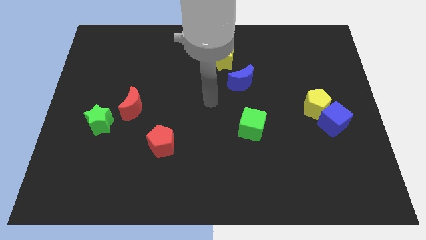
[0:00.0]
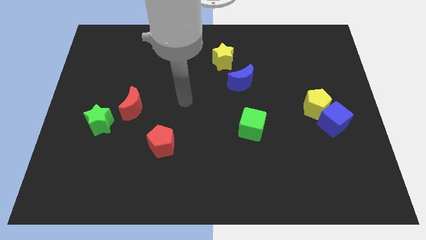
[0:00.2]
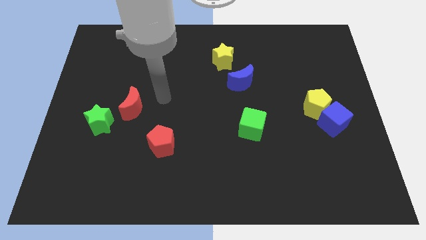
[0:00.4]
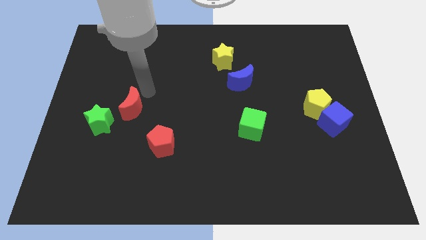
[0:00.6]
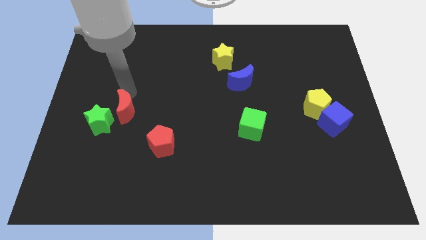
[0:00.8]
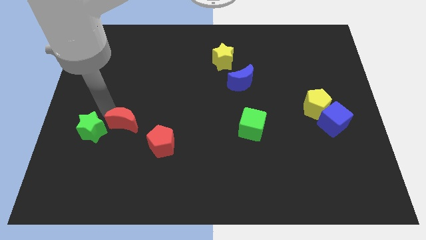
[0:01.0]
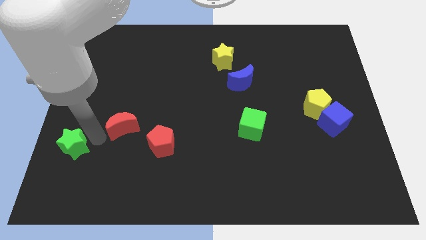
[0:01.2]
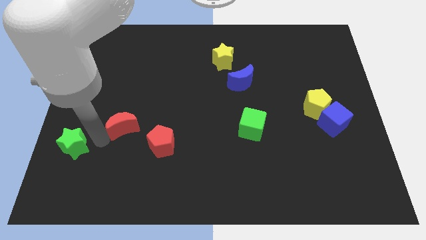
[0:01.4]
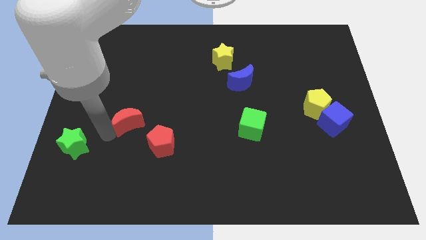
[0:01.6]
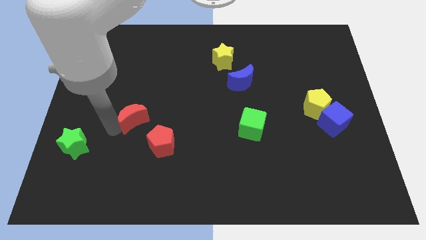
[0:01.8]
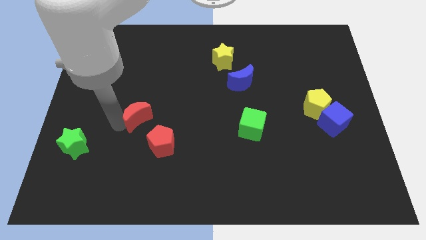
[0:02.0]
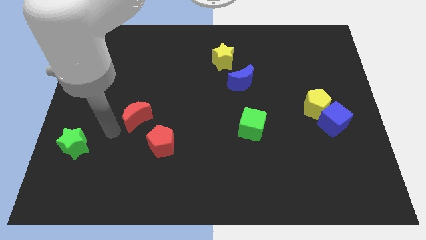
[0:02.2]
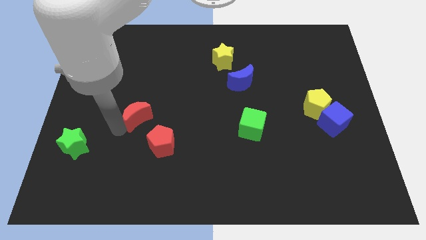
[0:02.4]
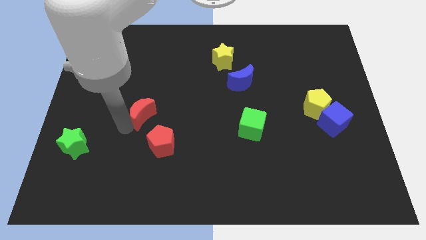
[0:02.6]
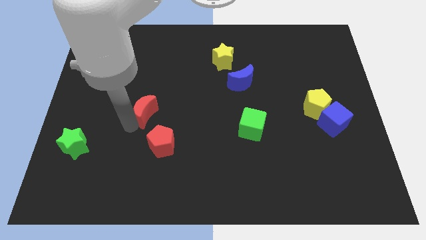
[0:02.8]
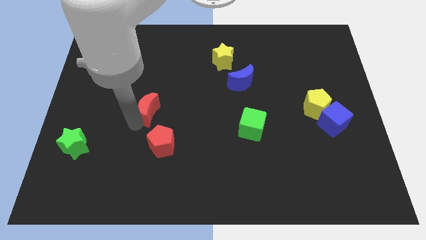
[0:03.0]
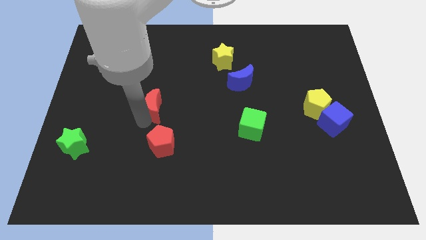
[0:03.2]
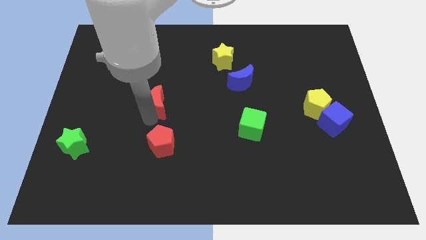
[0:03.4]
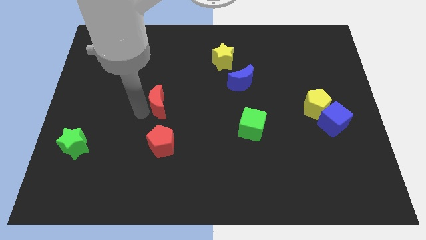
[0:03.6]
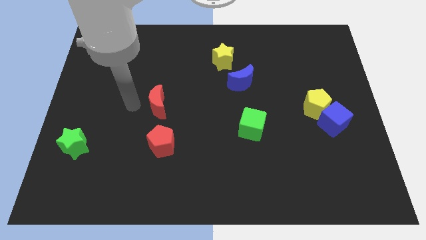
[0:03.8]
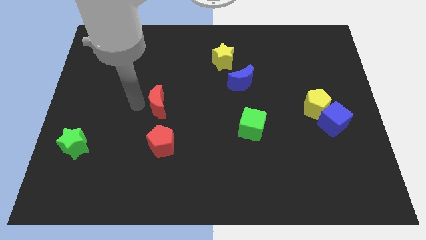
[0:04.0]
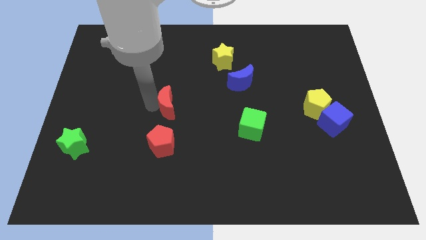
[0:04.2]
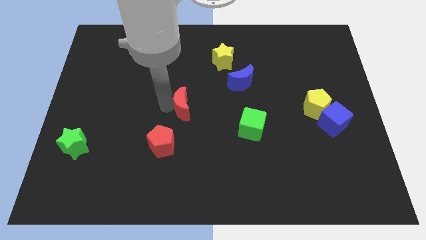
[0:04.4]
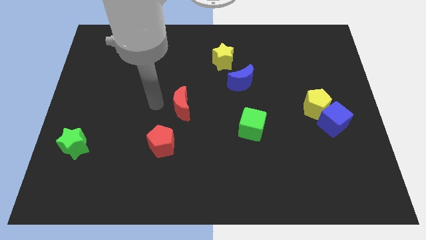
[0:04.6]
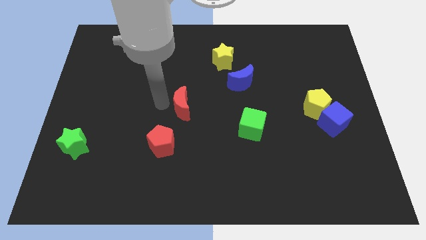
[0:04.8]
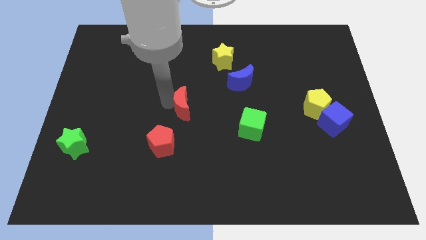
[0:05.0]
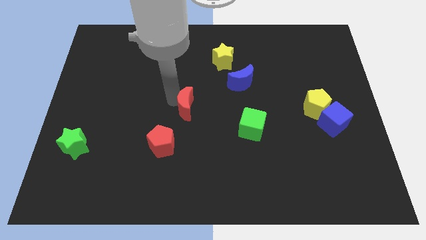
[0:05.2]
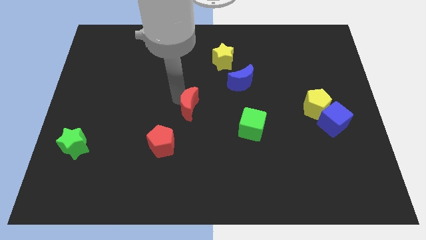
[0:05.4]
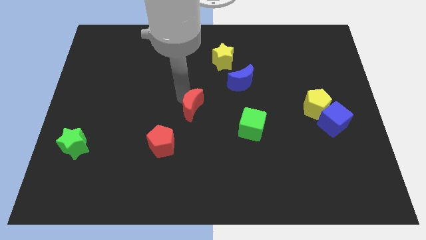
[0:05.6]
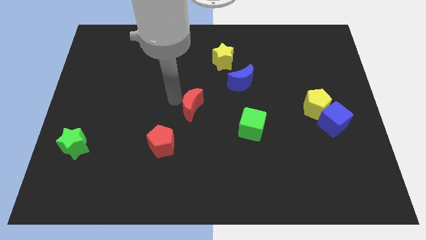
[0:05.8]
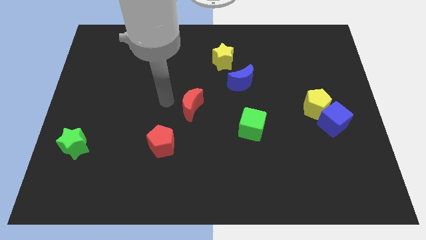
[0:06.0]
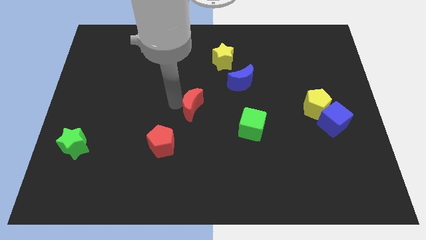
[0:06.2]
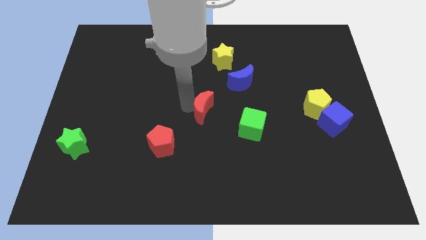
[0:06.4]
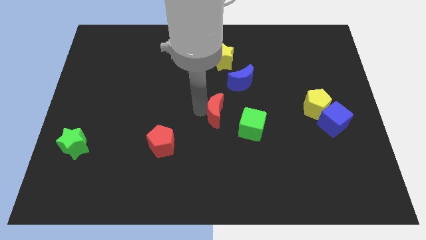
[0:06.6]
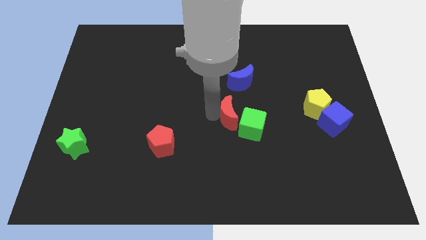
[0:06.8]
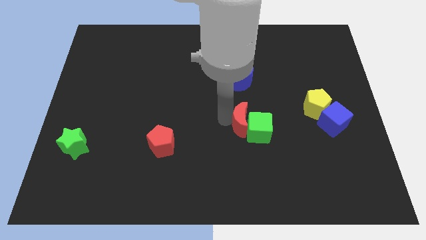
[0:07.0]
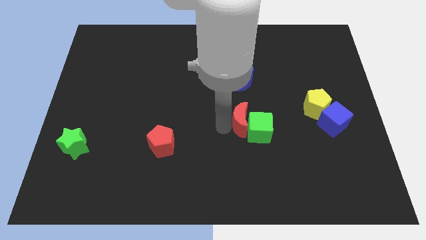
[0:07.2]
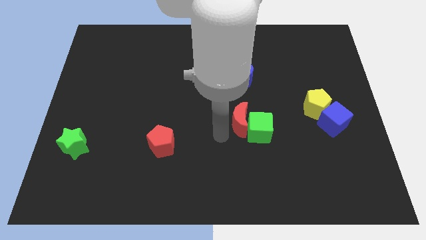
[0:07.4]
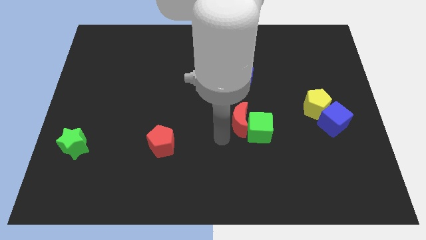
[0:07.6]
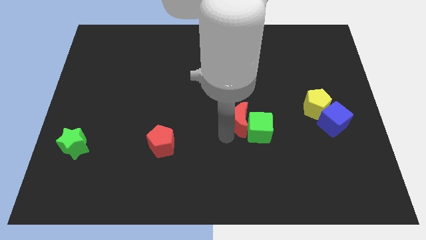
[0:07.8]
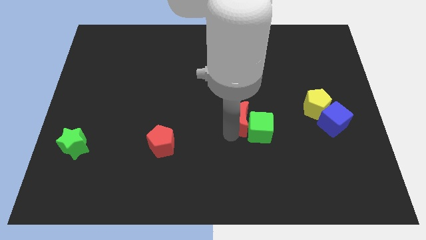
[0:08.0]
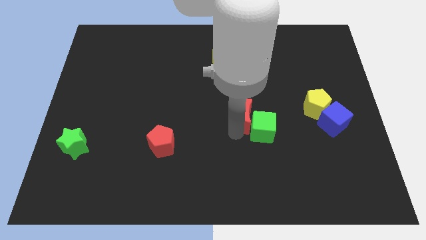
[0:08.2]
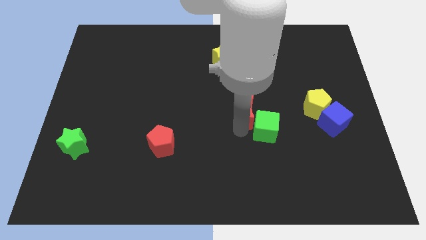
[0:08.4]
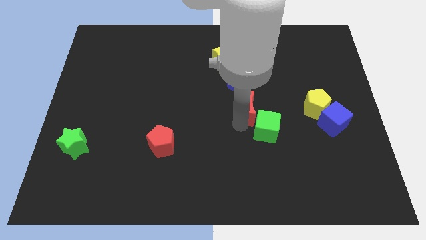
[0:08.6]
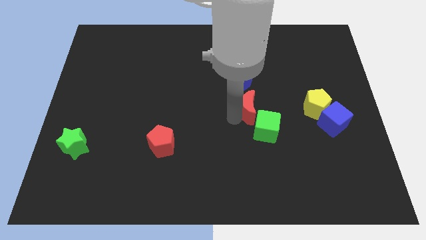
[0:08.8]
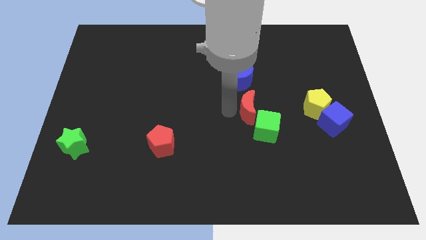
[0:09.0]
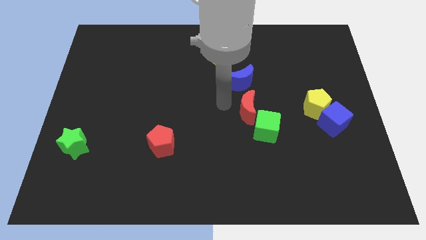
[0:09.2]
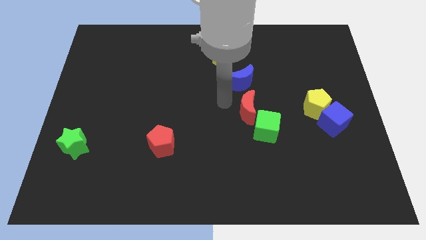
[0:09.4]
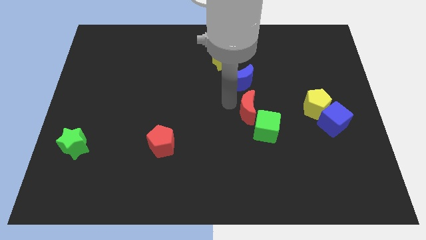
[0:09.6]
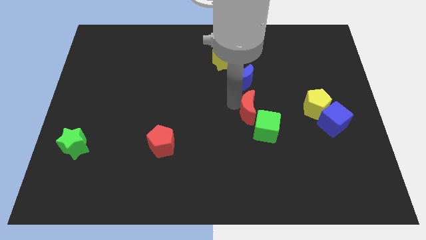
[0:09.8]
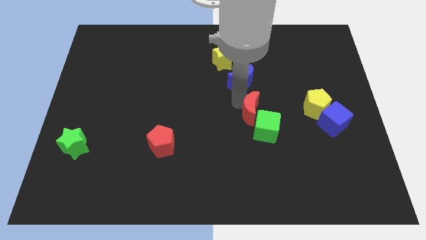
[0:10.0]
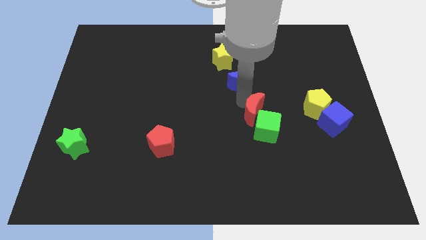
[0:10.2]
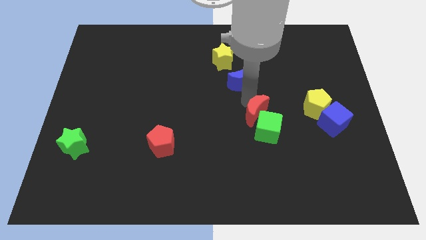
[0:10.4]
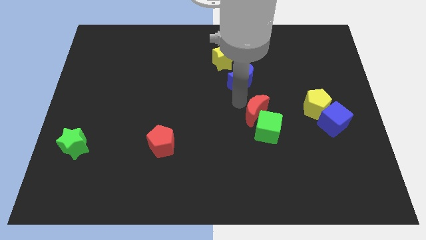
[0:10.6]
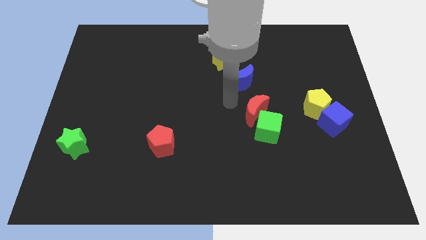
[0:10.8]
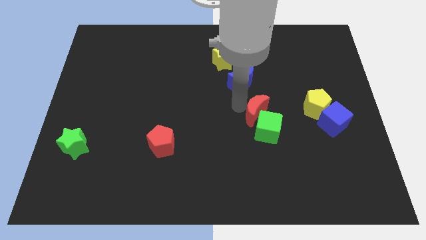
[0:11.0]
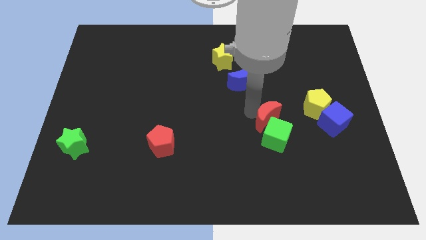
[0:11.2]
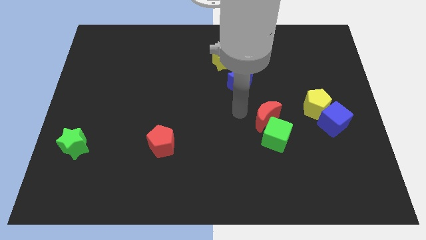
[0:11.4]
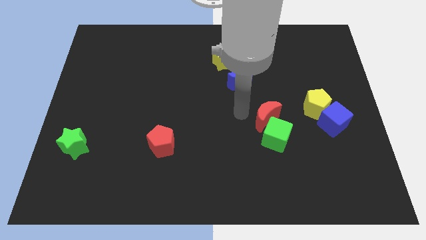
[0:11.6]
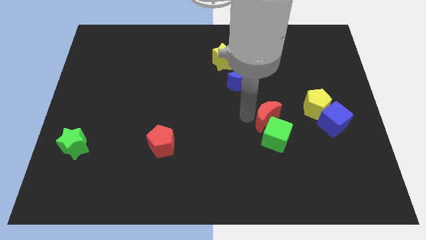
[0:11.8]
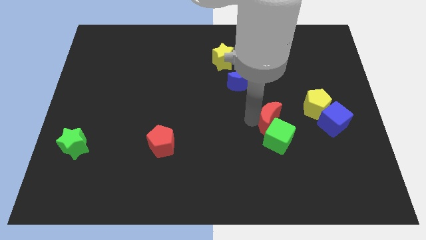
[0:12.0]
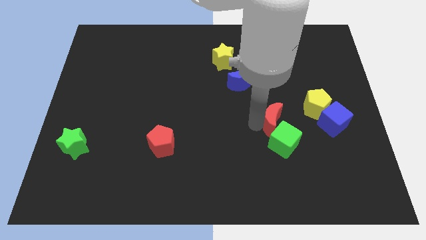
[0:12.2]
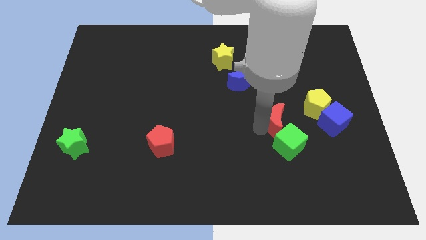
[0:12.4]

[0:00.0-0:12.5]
push the red moon to the bottom left side of the yellow pentagon

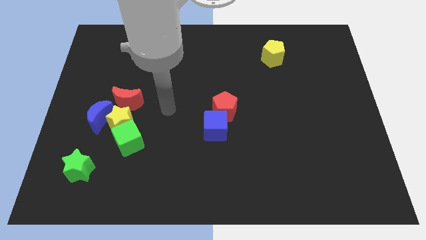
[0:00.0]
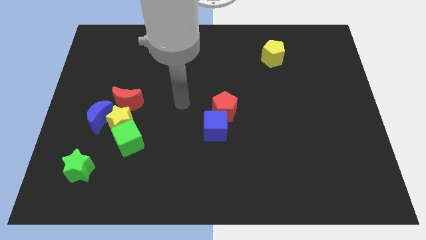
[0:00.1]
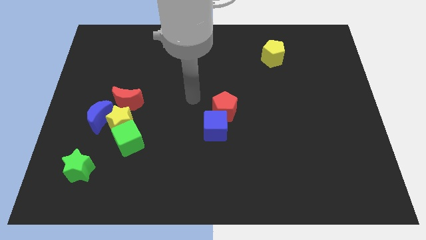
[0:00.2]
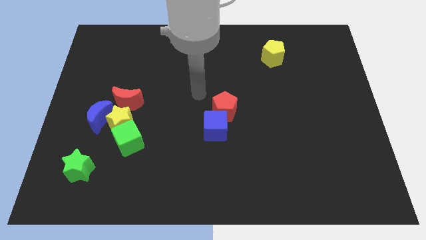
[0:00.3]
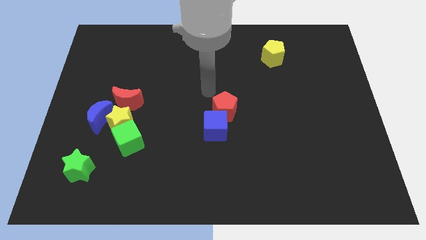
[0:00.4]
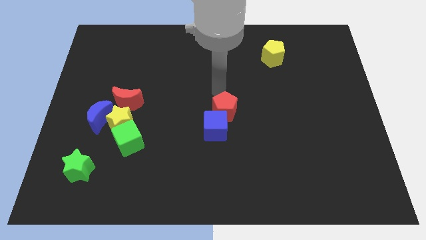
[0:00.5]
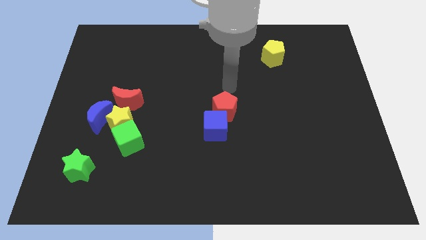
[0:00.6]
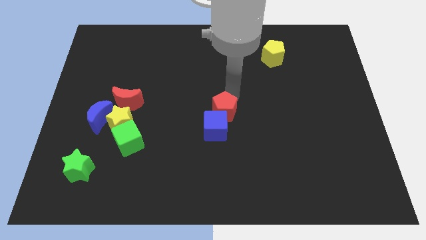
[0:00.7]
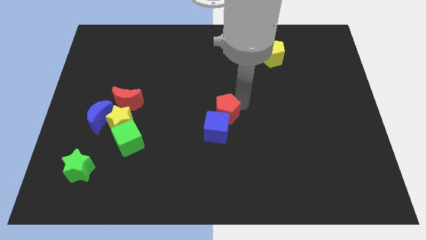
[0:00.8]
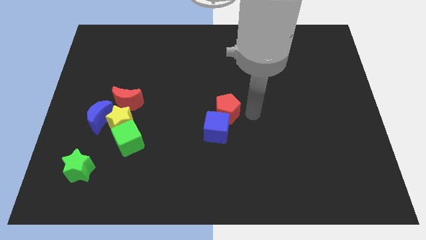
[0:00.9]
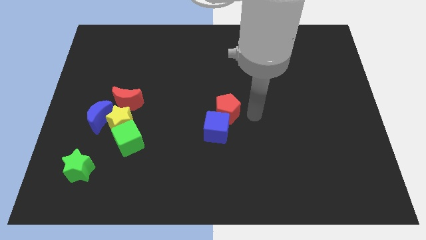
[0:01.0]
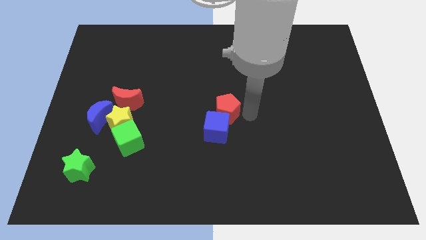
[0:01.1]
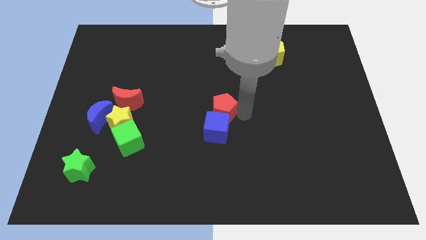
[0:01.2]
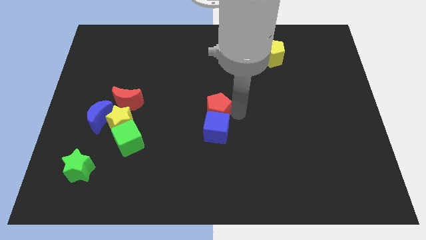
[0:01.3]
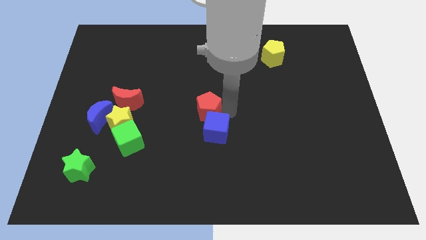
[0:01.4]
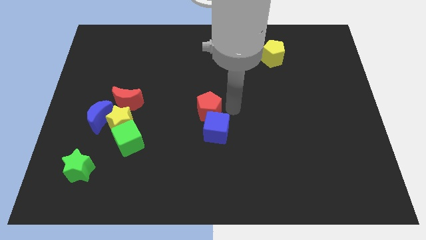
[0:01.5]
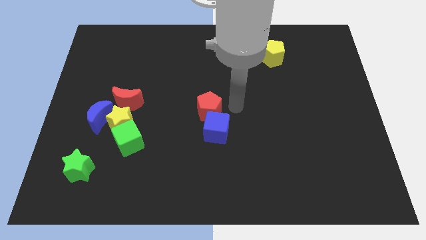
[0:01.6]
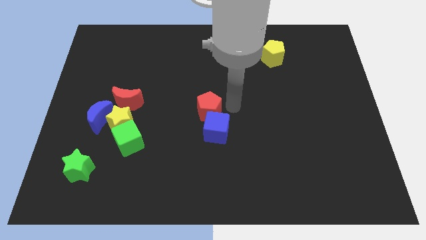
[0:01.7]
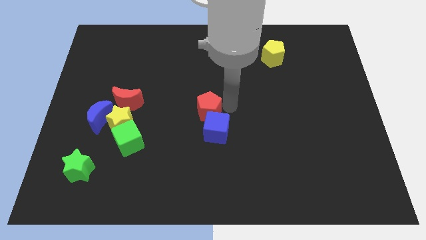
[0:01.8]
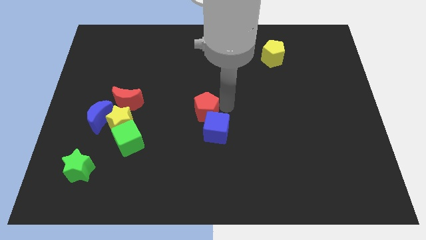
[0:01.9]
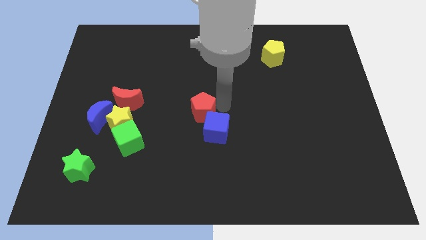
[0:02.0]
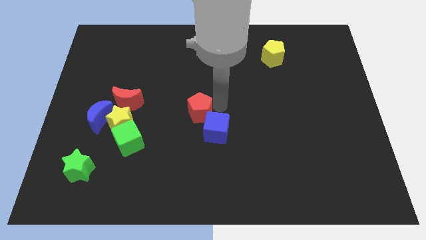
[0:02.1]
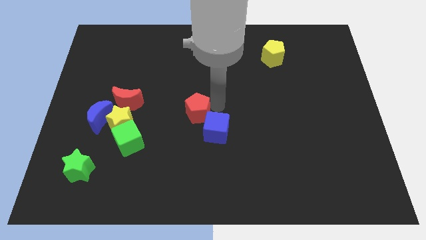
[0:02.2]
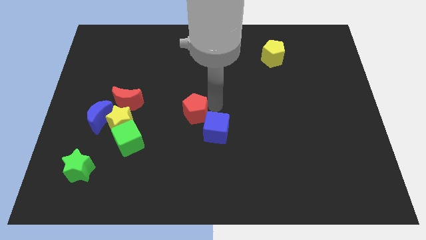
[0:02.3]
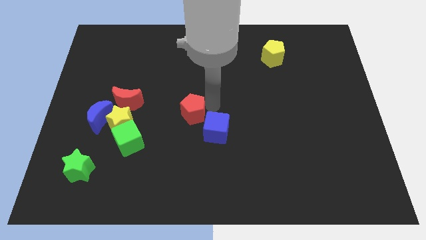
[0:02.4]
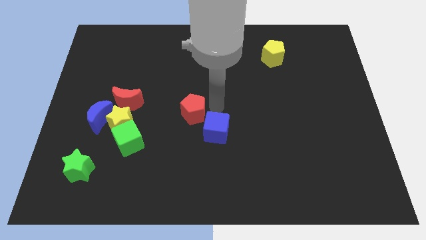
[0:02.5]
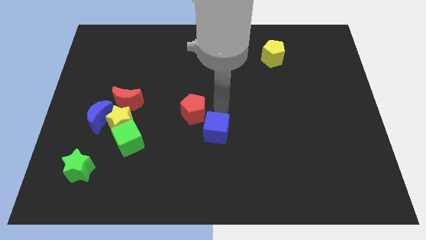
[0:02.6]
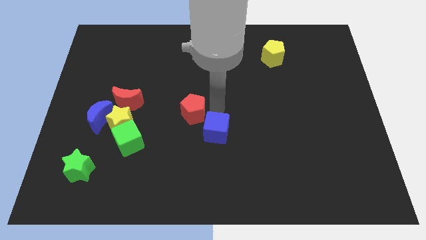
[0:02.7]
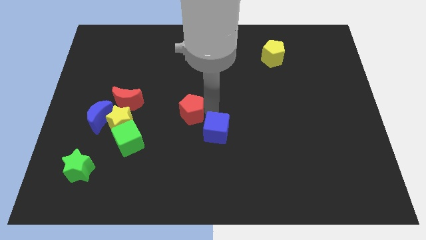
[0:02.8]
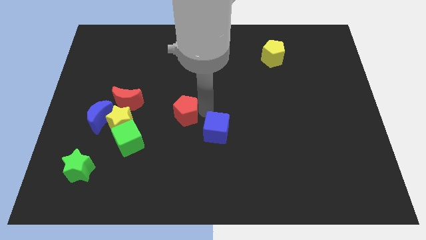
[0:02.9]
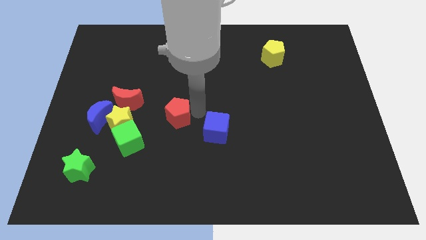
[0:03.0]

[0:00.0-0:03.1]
slide the red pentagon to the top right side of the green cube
